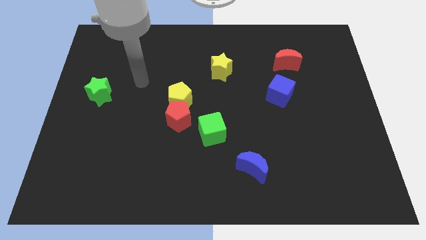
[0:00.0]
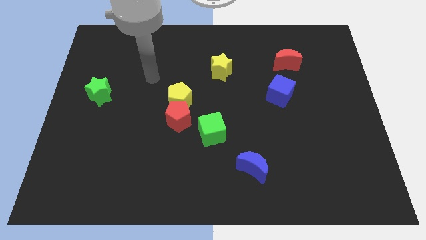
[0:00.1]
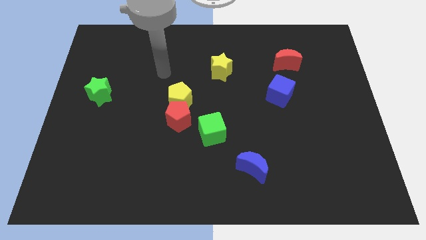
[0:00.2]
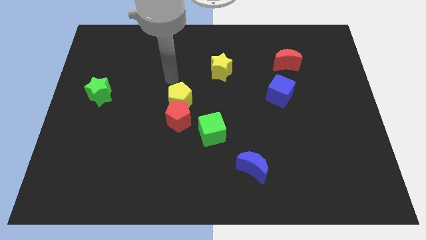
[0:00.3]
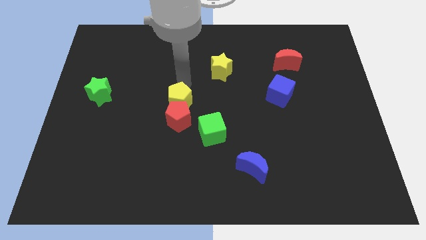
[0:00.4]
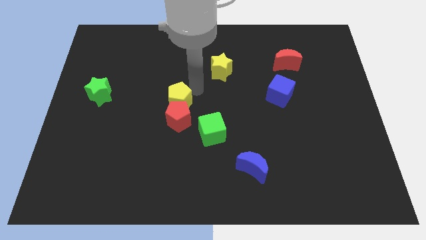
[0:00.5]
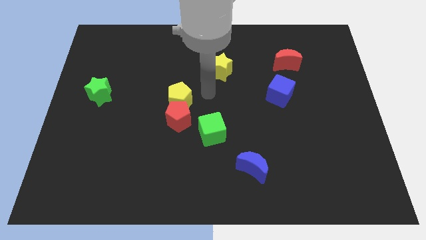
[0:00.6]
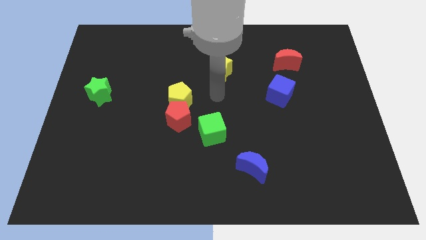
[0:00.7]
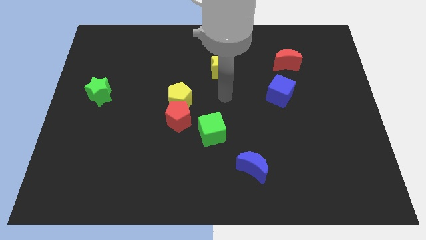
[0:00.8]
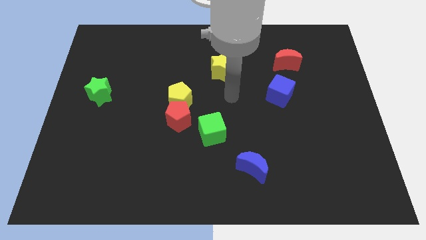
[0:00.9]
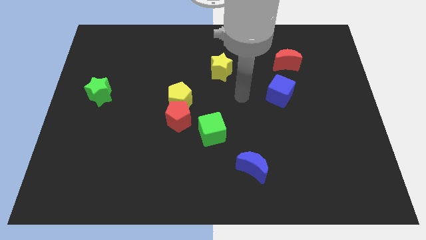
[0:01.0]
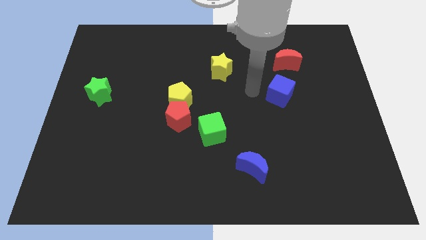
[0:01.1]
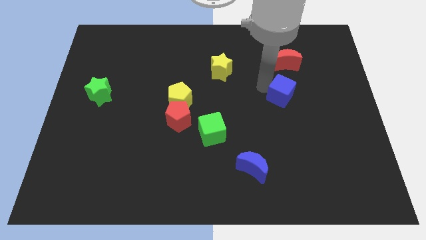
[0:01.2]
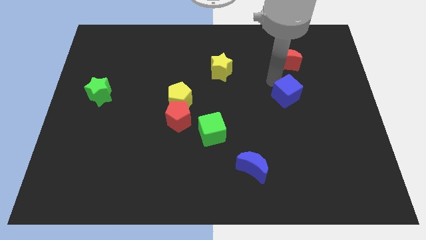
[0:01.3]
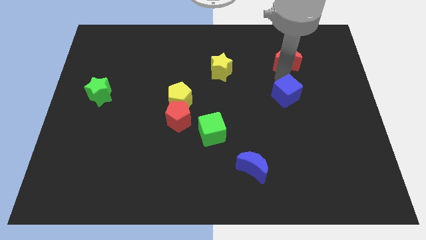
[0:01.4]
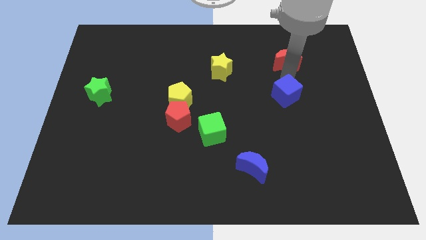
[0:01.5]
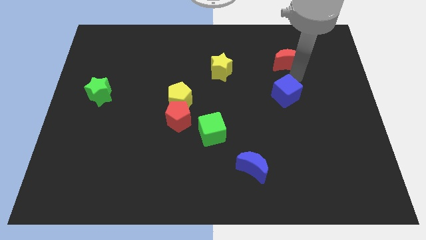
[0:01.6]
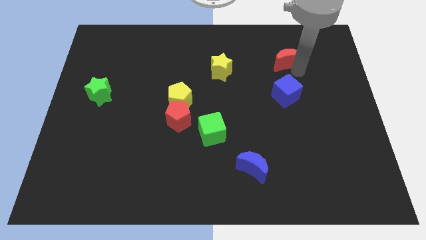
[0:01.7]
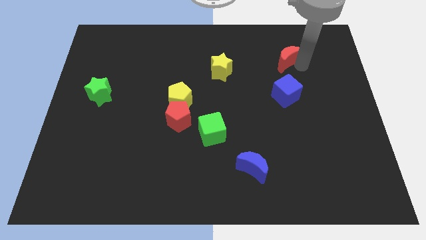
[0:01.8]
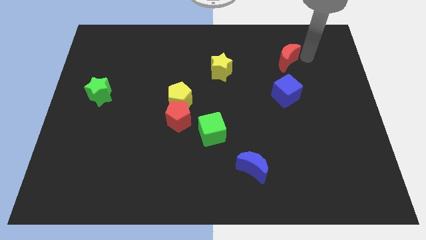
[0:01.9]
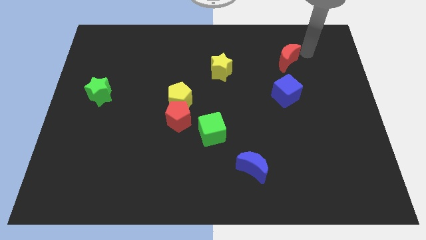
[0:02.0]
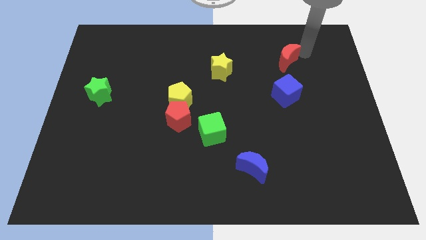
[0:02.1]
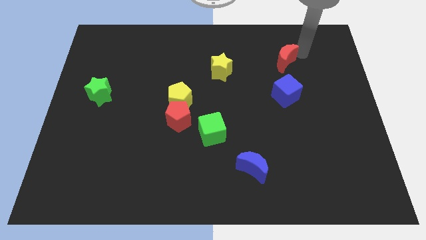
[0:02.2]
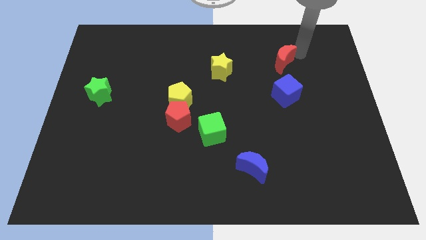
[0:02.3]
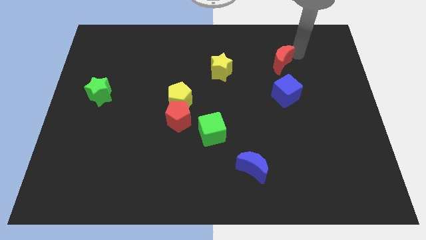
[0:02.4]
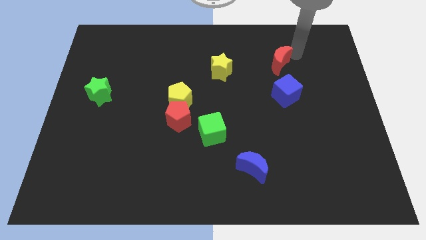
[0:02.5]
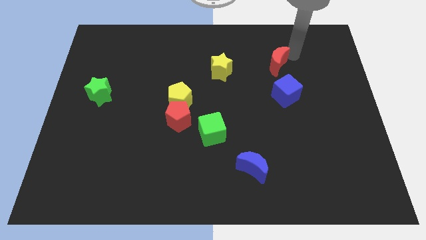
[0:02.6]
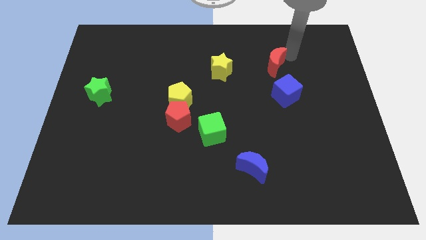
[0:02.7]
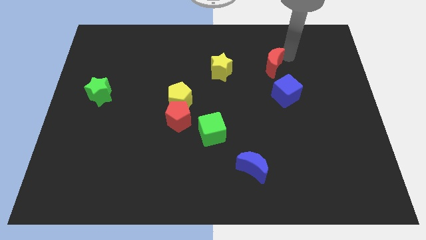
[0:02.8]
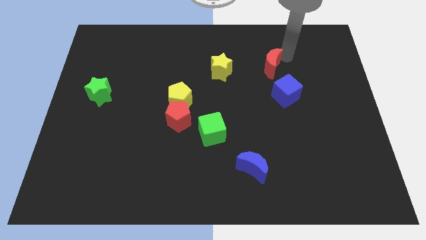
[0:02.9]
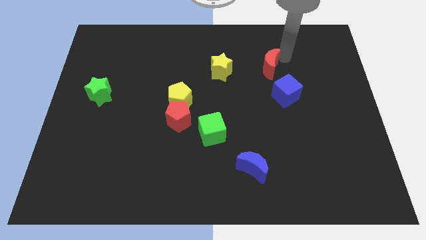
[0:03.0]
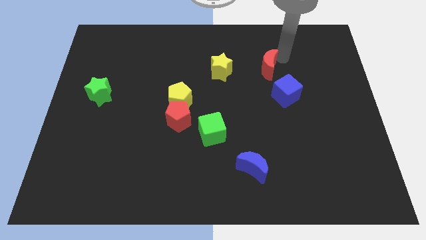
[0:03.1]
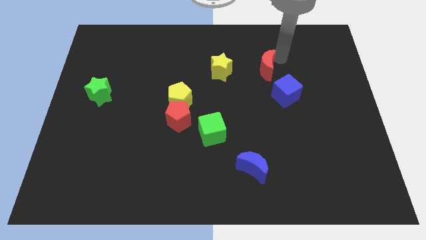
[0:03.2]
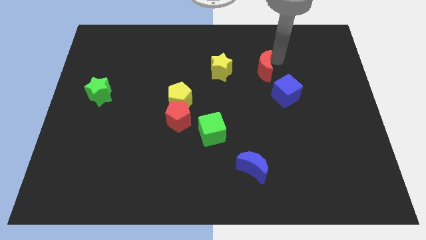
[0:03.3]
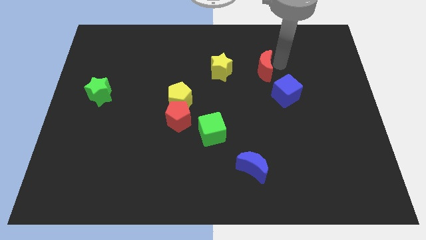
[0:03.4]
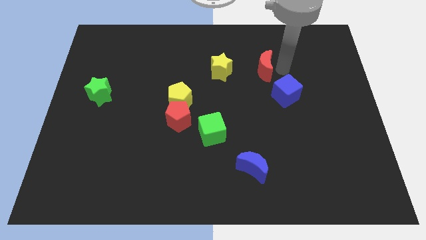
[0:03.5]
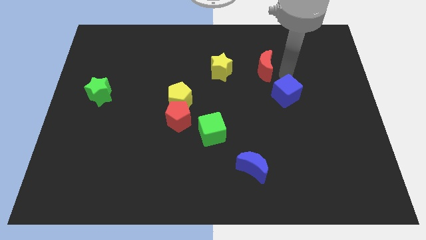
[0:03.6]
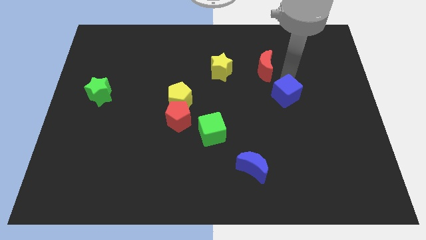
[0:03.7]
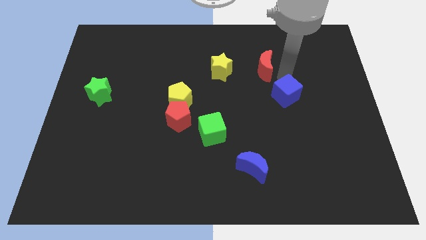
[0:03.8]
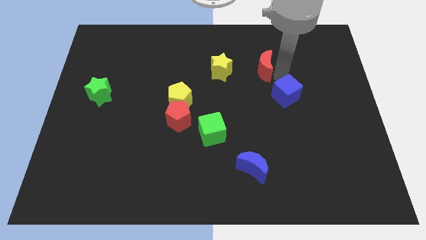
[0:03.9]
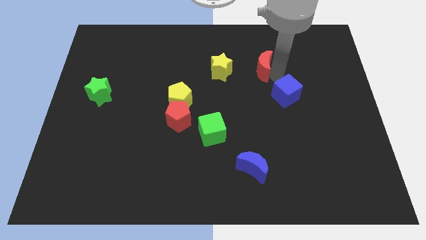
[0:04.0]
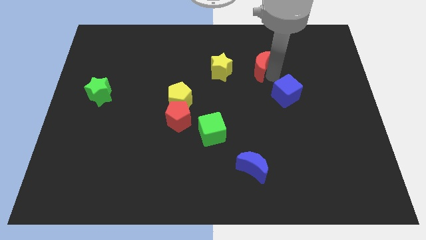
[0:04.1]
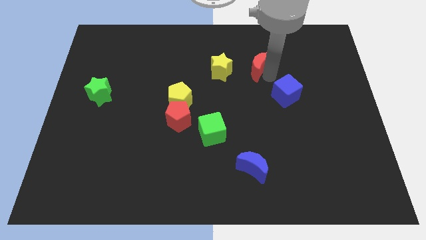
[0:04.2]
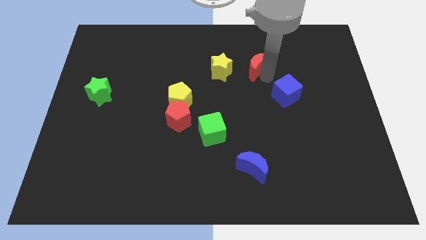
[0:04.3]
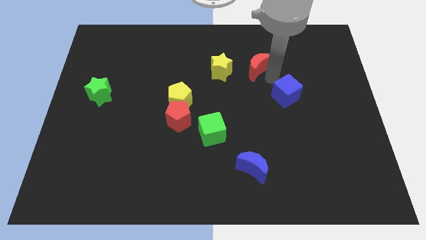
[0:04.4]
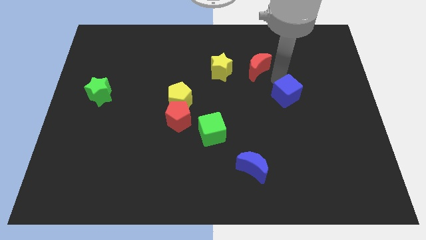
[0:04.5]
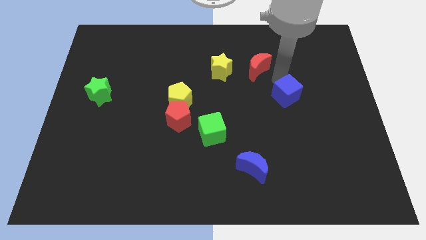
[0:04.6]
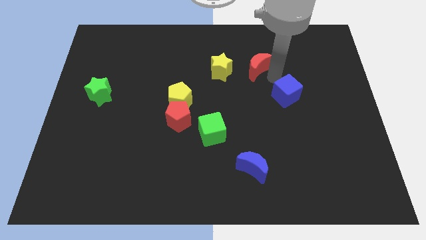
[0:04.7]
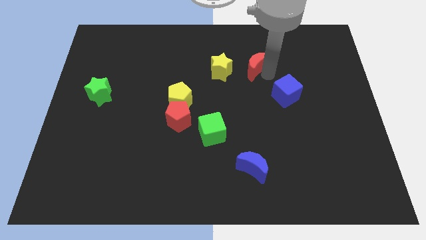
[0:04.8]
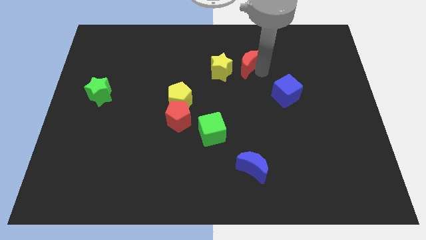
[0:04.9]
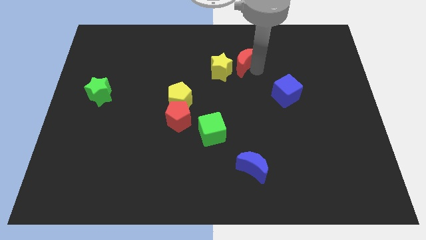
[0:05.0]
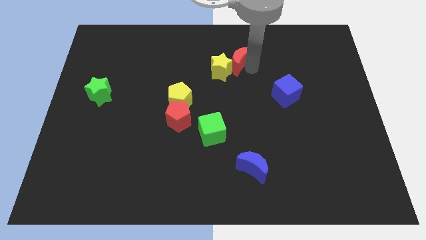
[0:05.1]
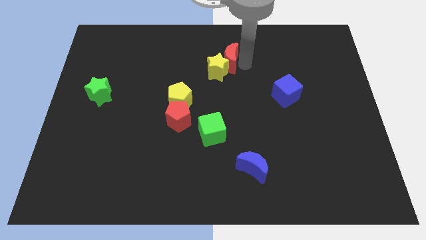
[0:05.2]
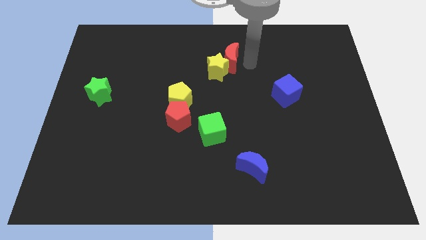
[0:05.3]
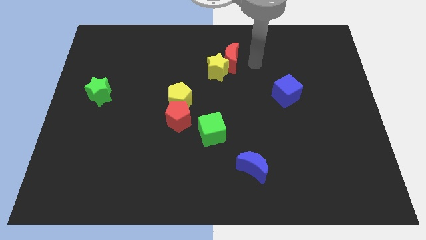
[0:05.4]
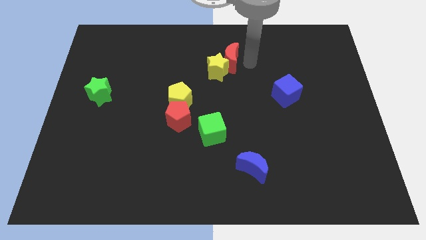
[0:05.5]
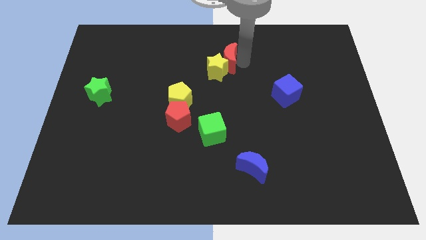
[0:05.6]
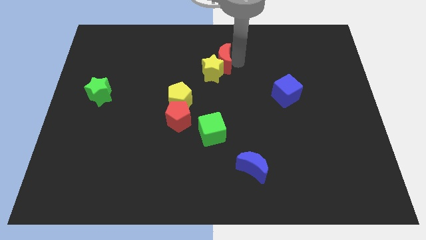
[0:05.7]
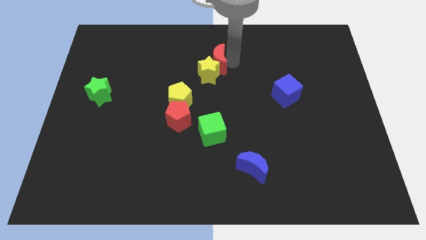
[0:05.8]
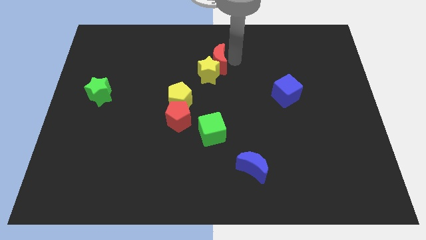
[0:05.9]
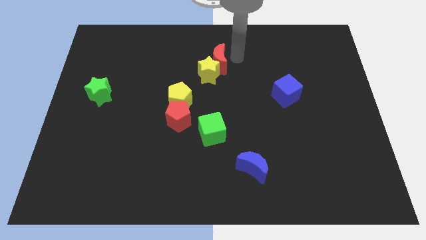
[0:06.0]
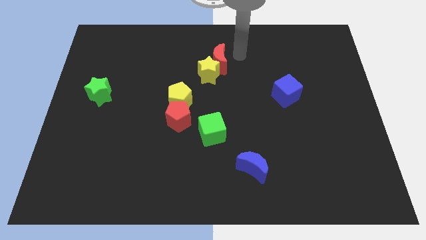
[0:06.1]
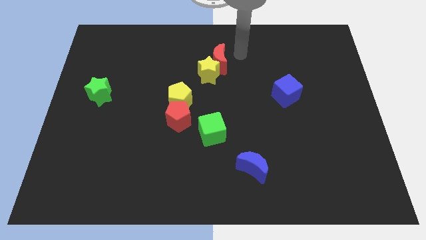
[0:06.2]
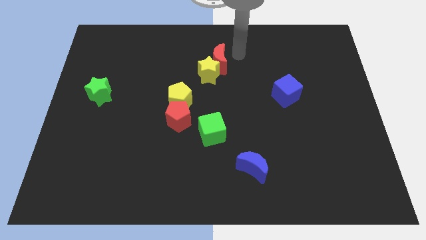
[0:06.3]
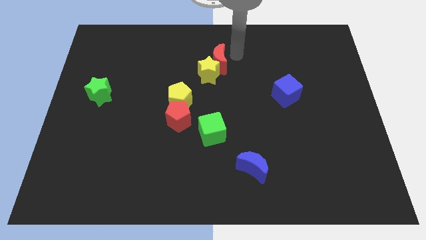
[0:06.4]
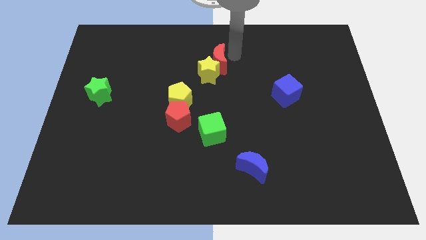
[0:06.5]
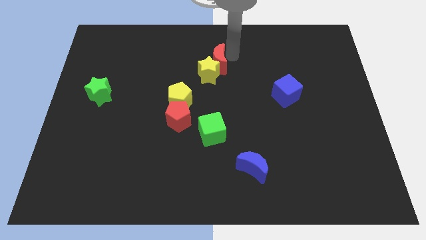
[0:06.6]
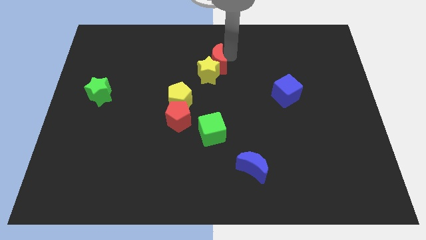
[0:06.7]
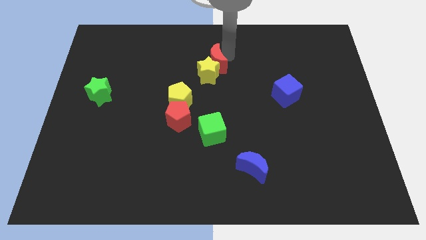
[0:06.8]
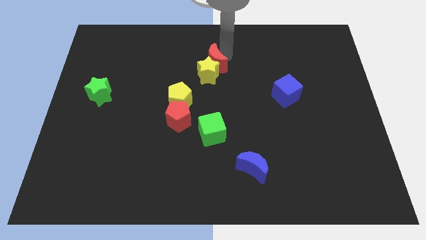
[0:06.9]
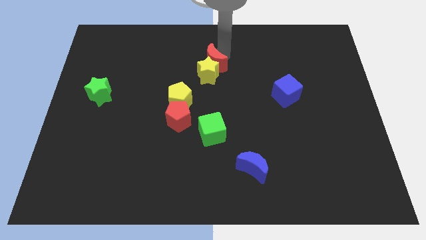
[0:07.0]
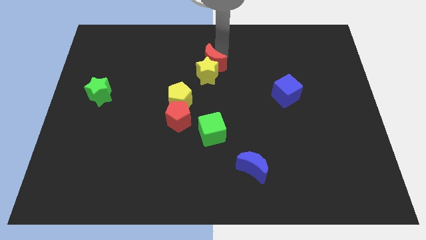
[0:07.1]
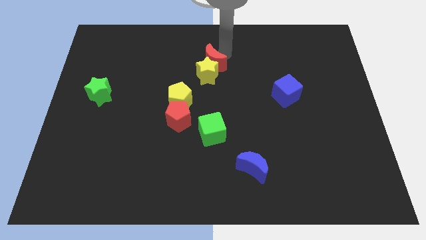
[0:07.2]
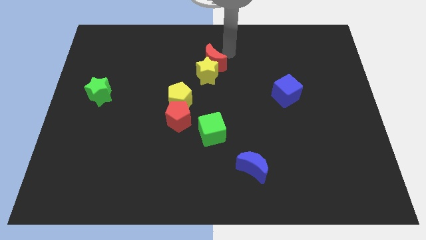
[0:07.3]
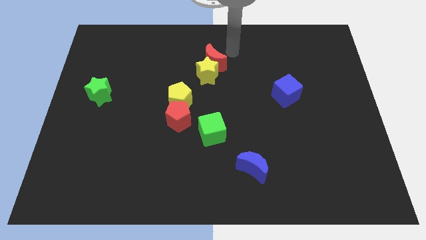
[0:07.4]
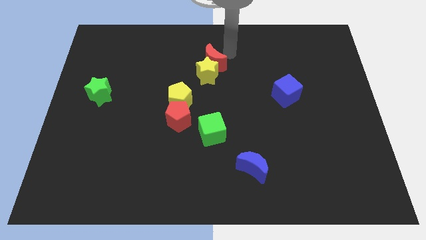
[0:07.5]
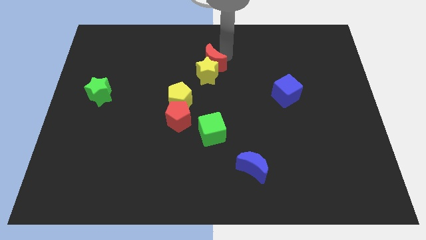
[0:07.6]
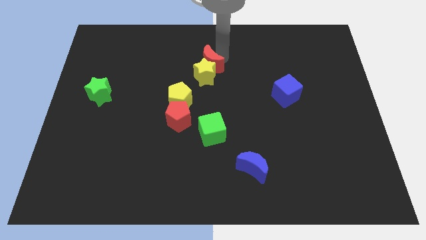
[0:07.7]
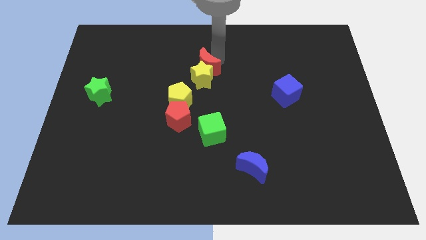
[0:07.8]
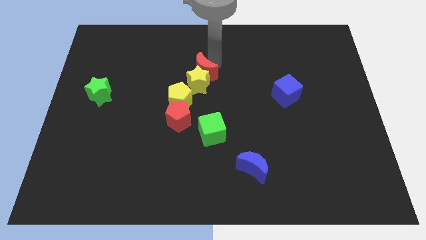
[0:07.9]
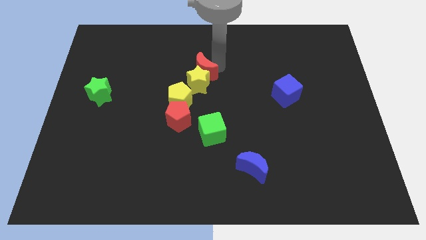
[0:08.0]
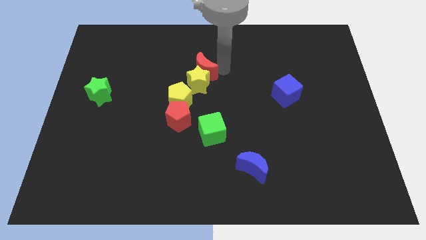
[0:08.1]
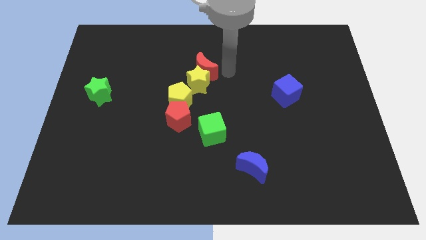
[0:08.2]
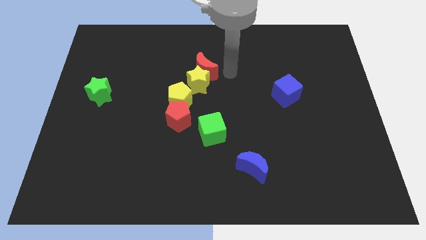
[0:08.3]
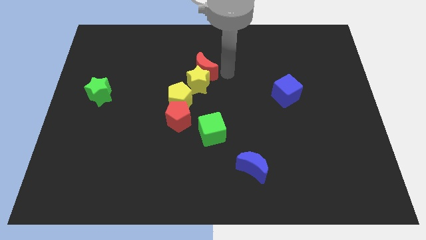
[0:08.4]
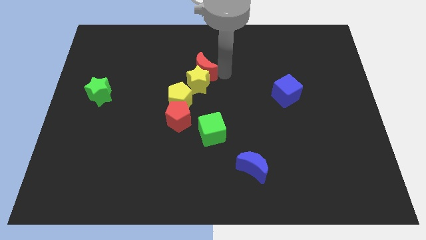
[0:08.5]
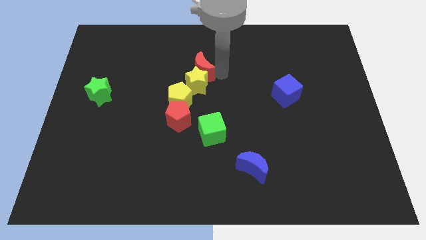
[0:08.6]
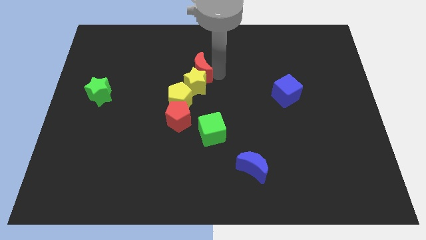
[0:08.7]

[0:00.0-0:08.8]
slide the red moon above the yellow pentagon
